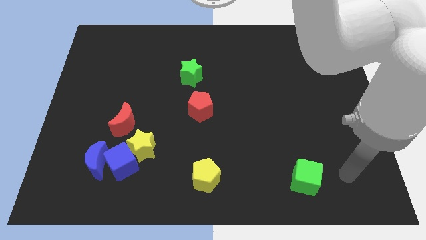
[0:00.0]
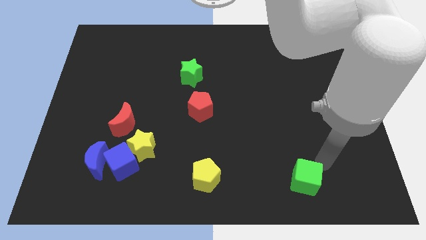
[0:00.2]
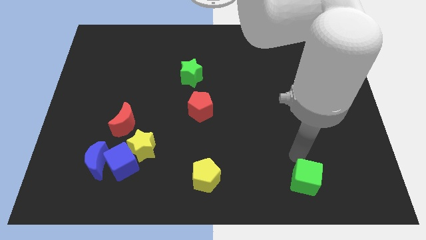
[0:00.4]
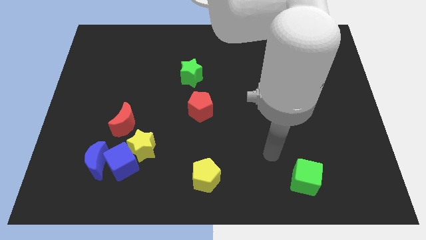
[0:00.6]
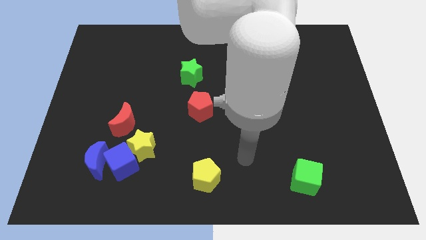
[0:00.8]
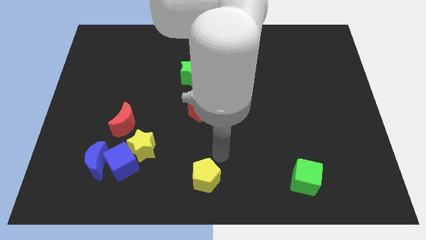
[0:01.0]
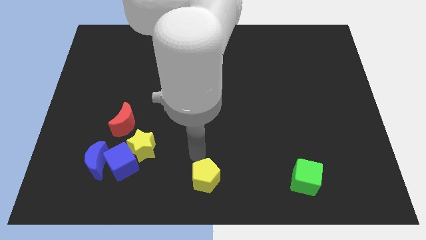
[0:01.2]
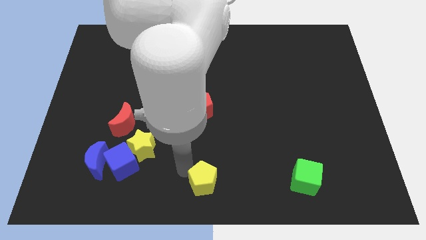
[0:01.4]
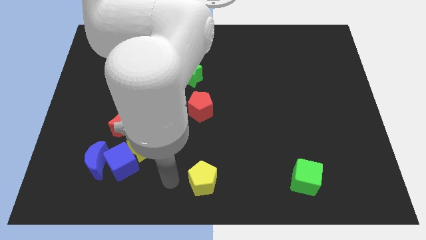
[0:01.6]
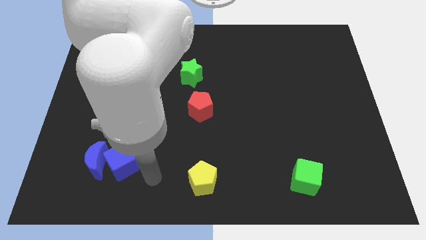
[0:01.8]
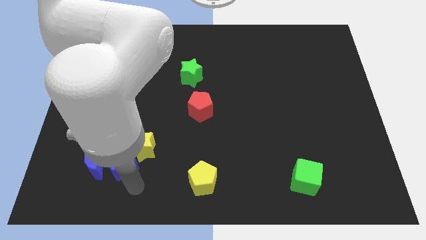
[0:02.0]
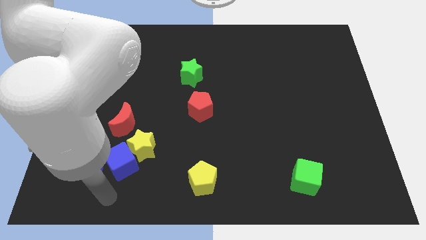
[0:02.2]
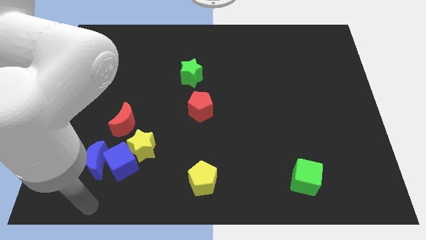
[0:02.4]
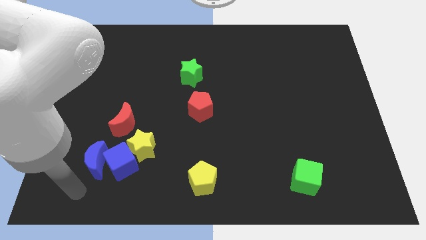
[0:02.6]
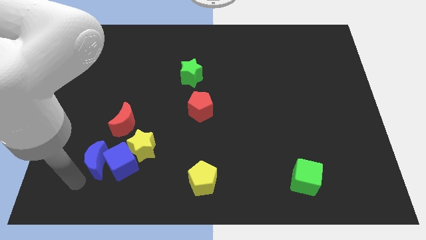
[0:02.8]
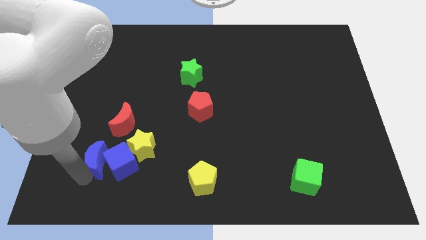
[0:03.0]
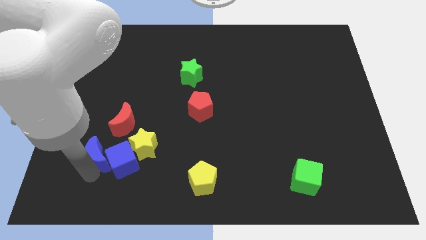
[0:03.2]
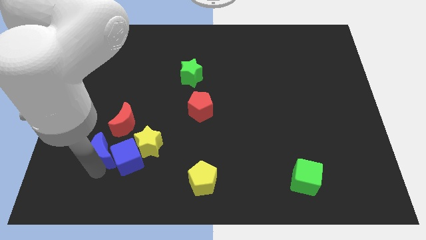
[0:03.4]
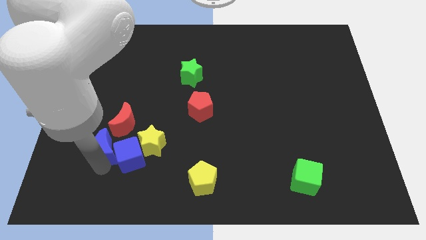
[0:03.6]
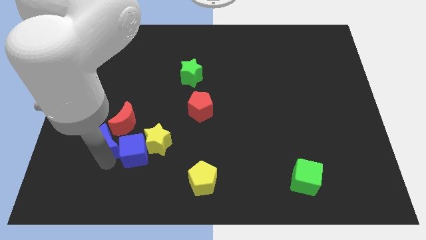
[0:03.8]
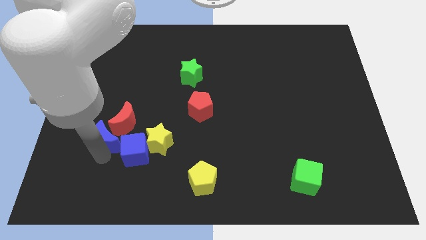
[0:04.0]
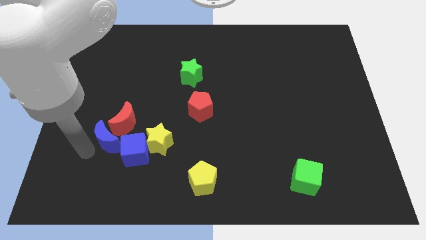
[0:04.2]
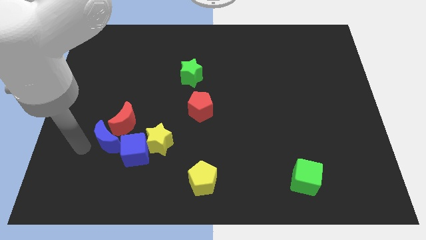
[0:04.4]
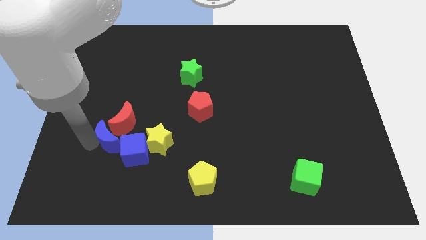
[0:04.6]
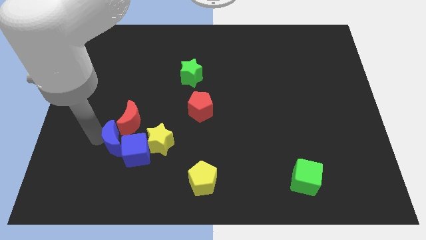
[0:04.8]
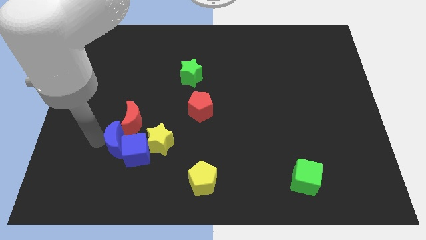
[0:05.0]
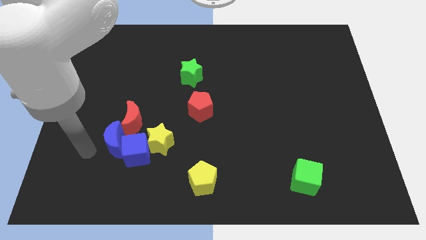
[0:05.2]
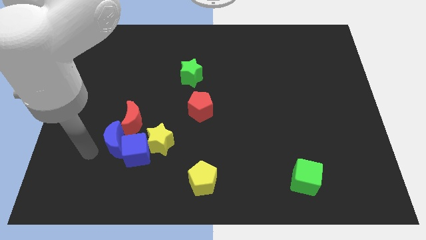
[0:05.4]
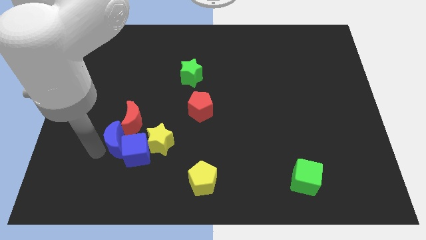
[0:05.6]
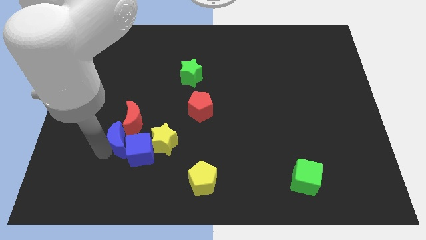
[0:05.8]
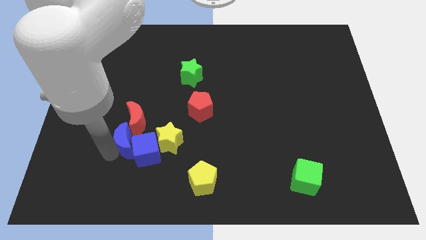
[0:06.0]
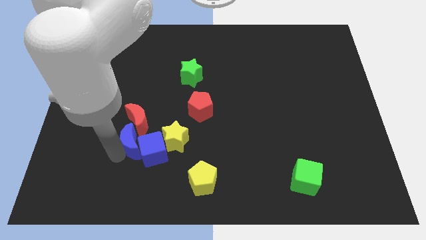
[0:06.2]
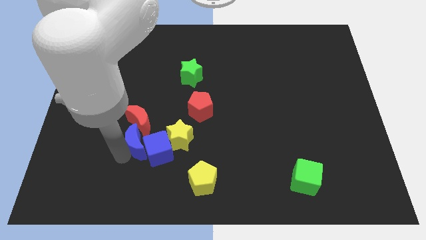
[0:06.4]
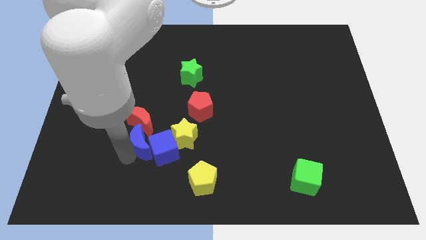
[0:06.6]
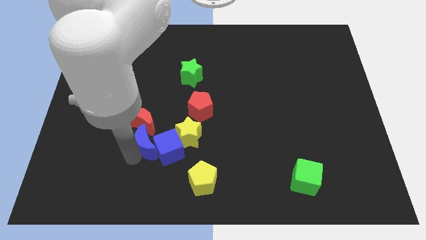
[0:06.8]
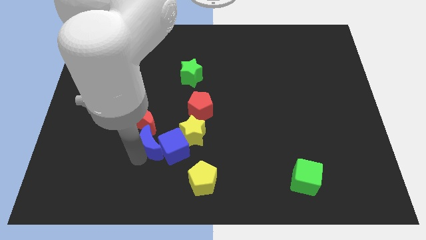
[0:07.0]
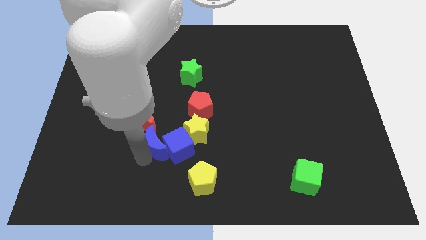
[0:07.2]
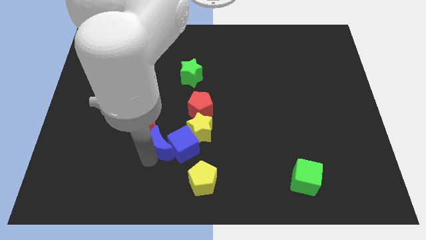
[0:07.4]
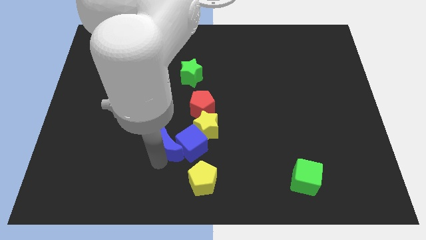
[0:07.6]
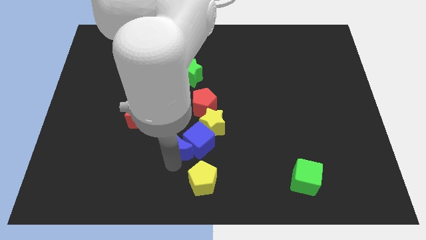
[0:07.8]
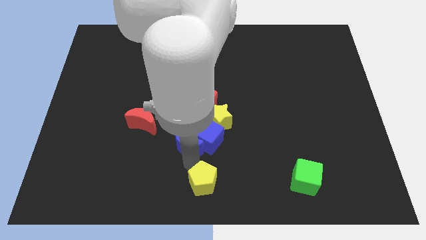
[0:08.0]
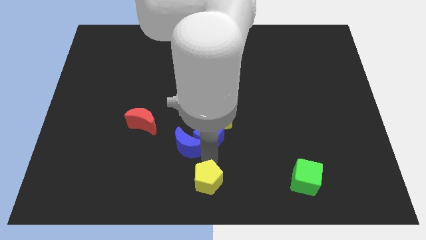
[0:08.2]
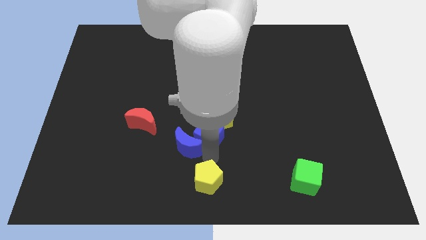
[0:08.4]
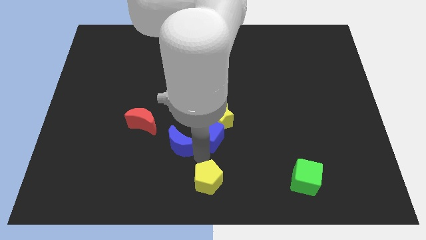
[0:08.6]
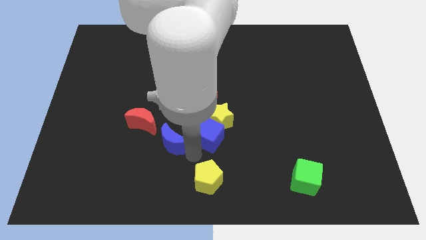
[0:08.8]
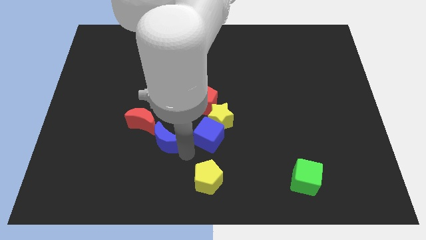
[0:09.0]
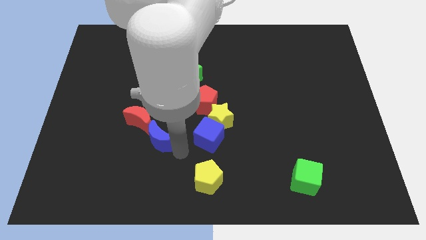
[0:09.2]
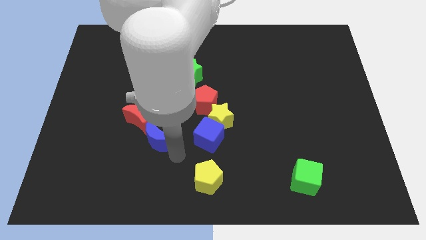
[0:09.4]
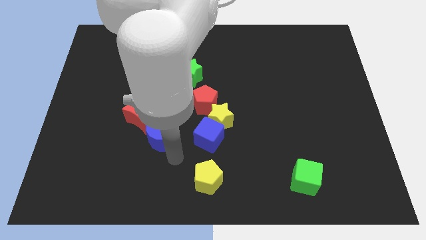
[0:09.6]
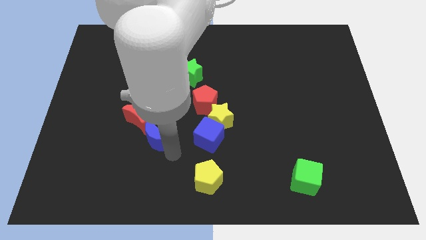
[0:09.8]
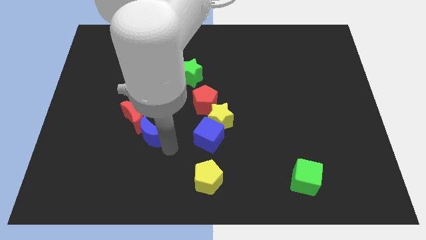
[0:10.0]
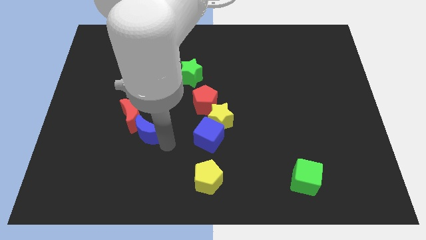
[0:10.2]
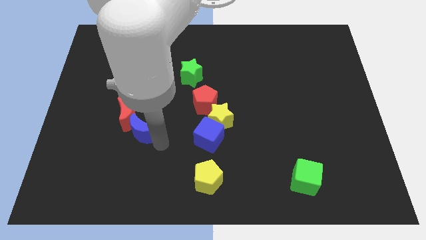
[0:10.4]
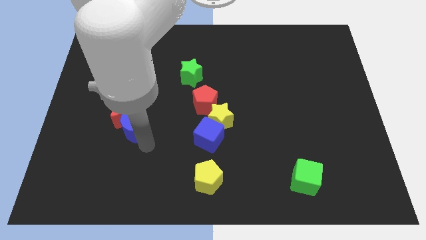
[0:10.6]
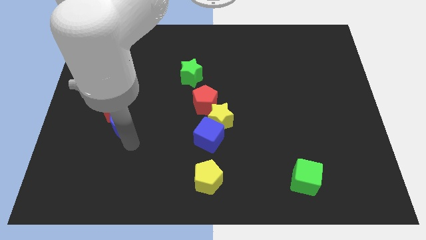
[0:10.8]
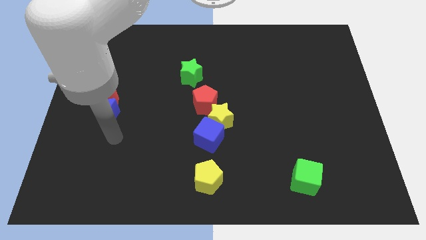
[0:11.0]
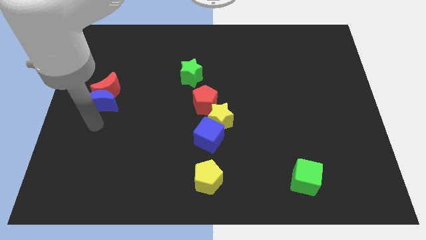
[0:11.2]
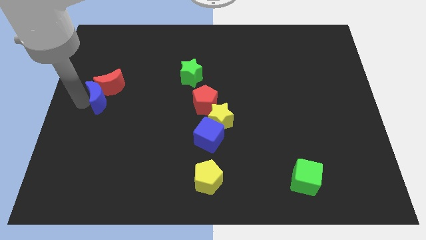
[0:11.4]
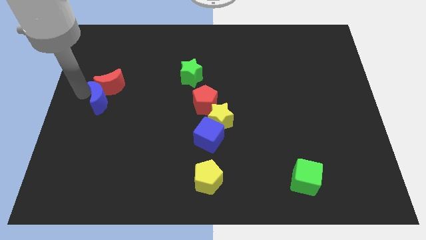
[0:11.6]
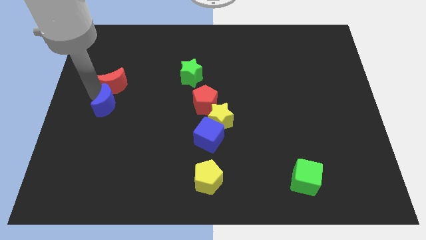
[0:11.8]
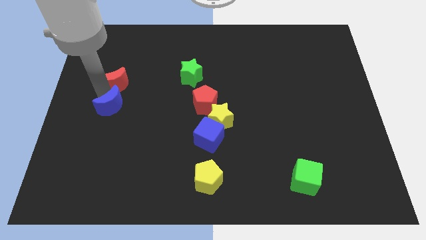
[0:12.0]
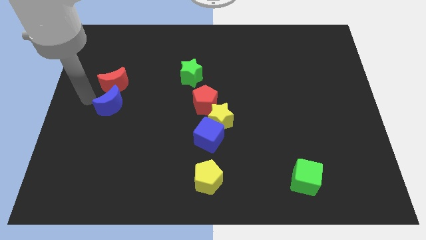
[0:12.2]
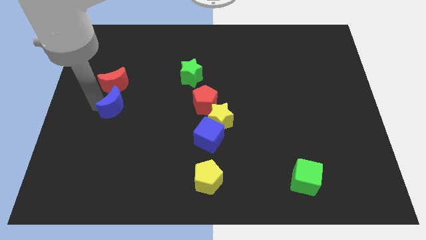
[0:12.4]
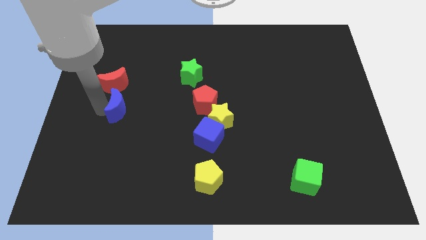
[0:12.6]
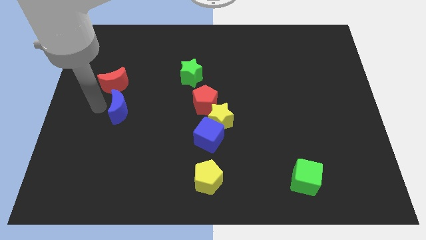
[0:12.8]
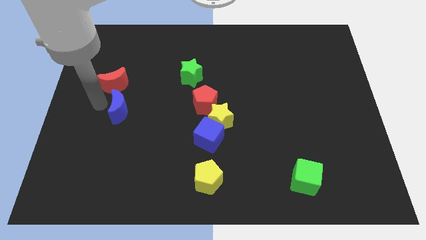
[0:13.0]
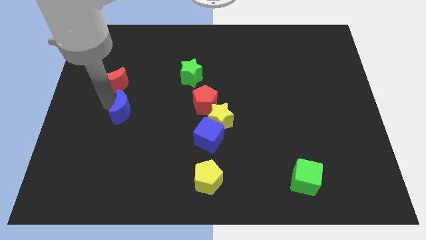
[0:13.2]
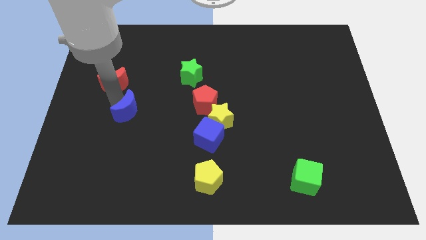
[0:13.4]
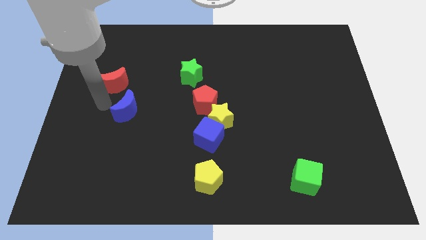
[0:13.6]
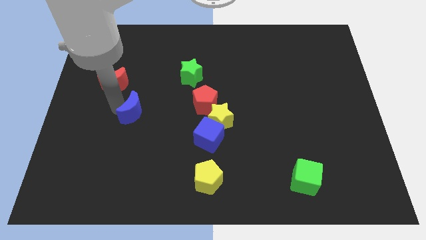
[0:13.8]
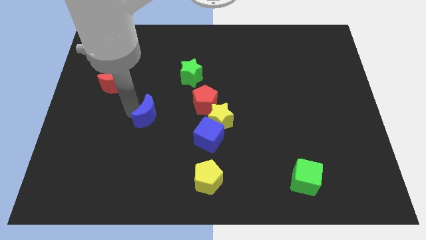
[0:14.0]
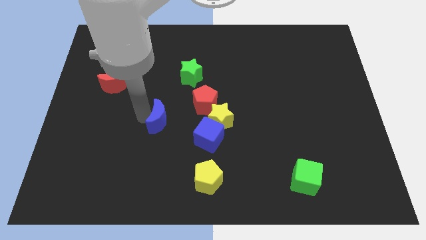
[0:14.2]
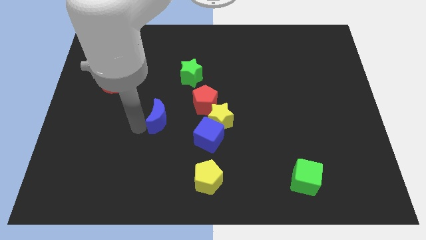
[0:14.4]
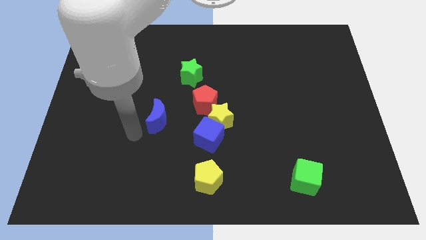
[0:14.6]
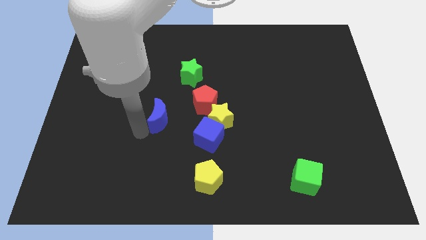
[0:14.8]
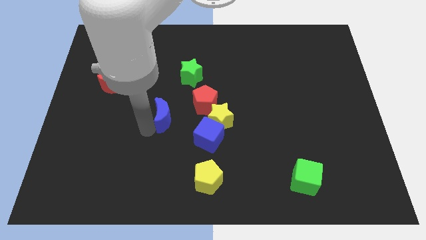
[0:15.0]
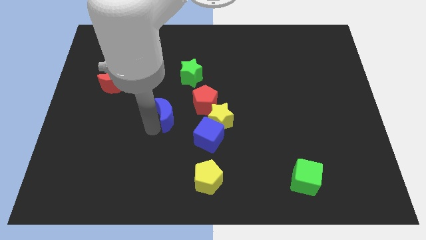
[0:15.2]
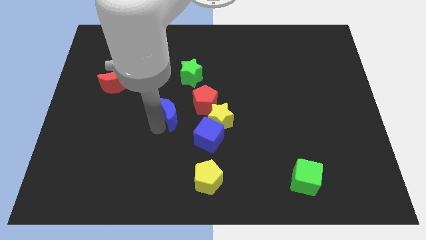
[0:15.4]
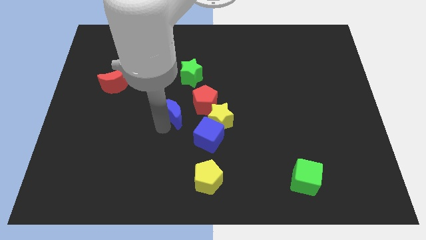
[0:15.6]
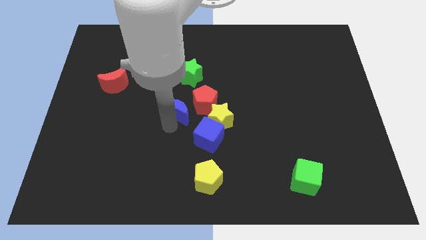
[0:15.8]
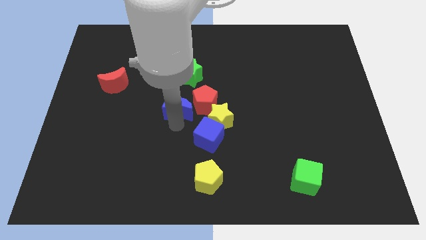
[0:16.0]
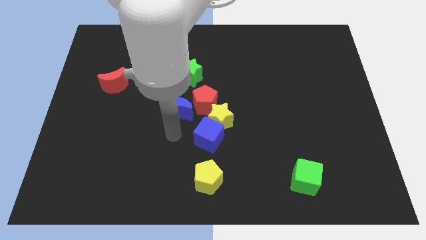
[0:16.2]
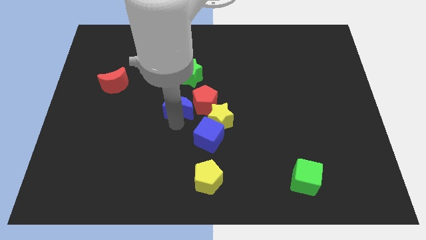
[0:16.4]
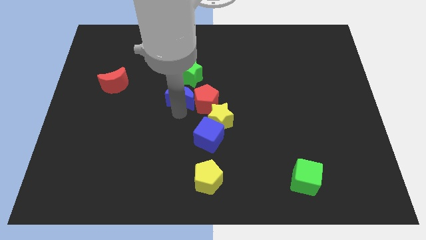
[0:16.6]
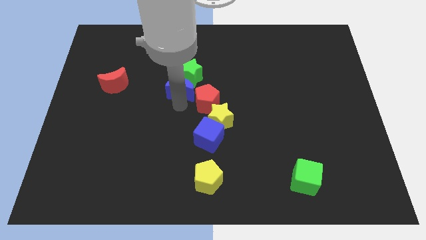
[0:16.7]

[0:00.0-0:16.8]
move the blue moon to the green star
